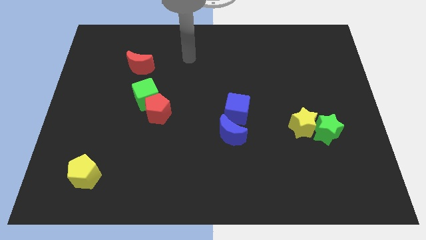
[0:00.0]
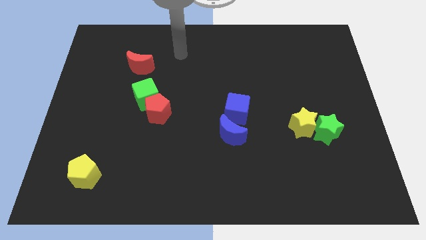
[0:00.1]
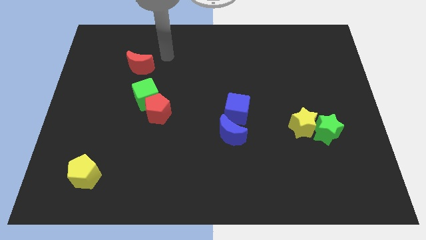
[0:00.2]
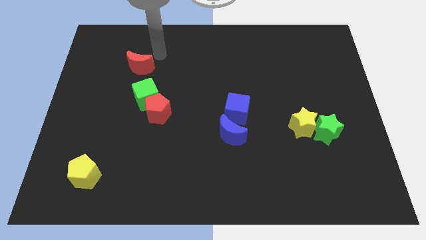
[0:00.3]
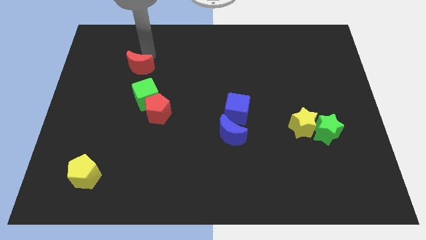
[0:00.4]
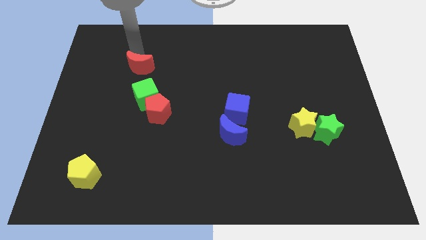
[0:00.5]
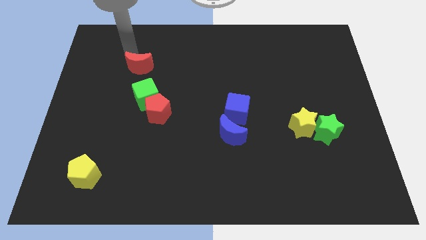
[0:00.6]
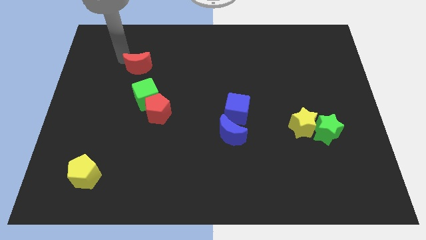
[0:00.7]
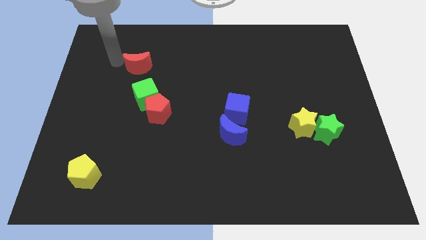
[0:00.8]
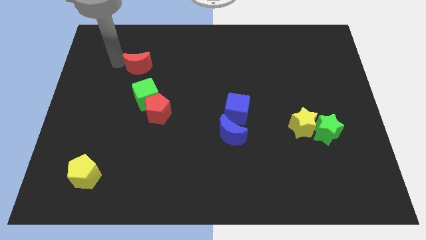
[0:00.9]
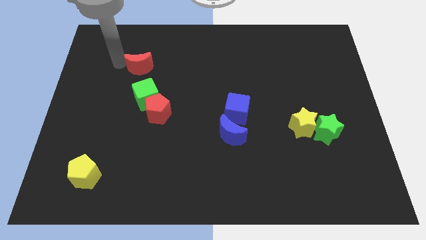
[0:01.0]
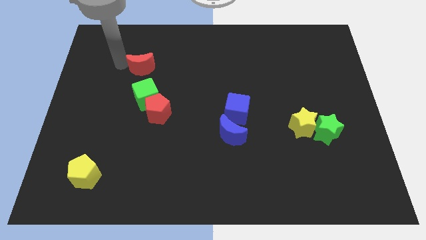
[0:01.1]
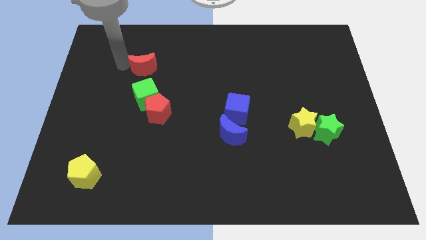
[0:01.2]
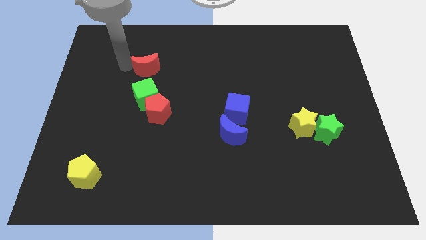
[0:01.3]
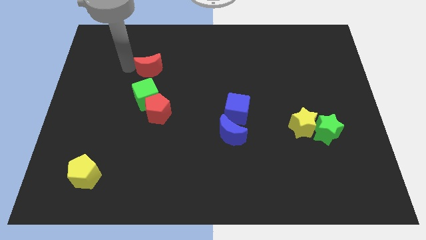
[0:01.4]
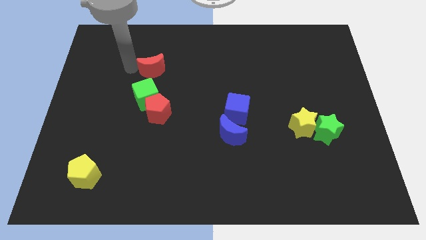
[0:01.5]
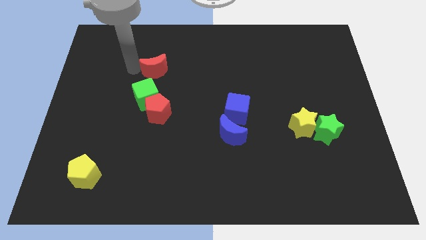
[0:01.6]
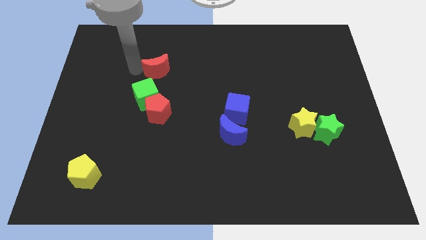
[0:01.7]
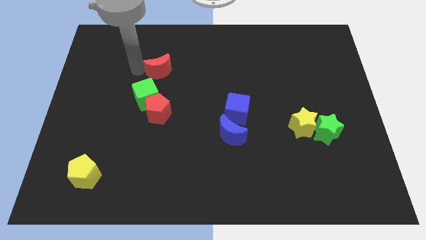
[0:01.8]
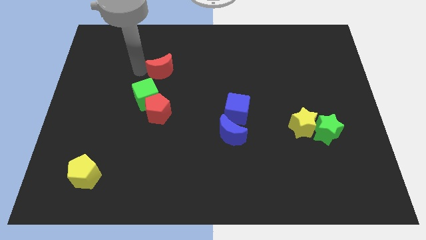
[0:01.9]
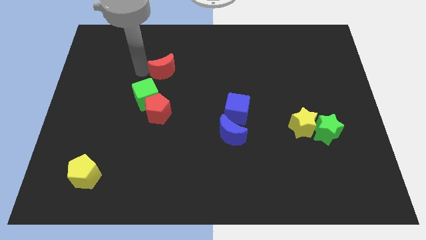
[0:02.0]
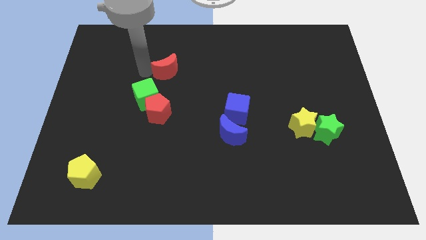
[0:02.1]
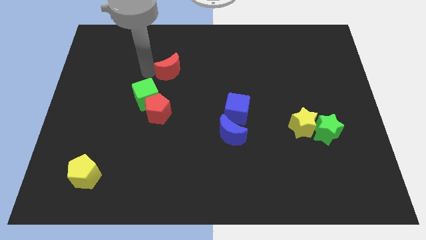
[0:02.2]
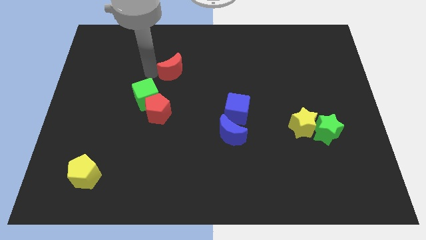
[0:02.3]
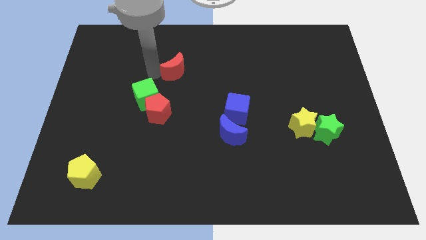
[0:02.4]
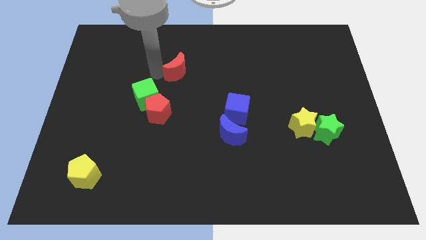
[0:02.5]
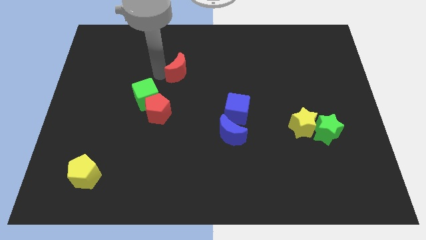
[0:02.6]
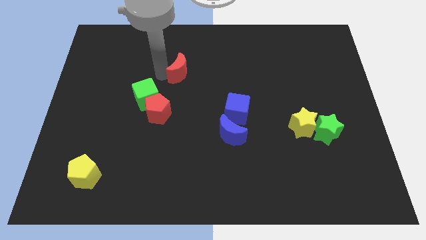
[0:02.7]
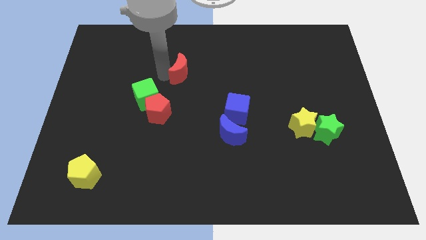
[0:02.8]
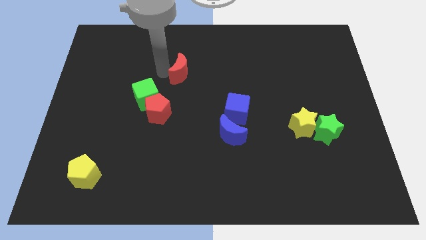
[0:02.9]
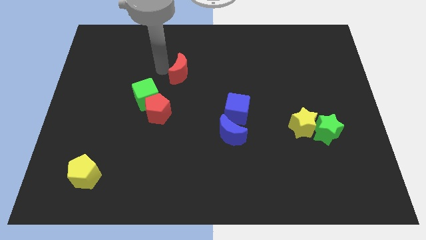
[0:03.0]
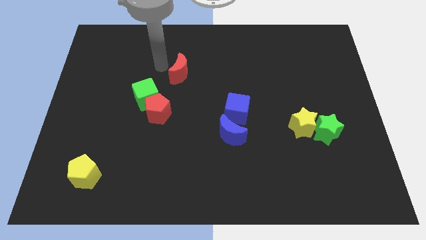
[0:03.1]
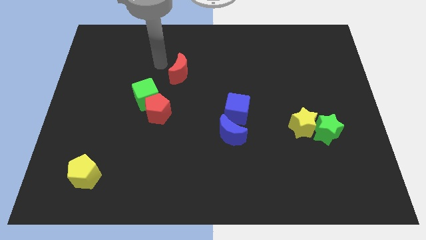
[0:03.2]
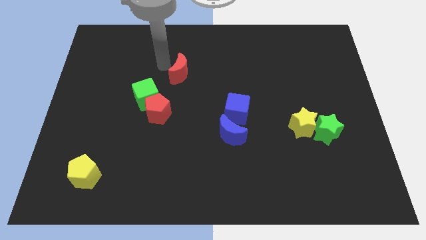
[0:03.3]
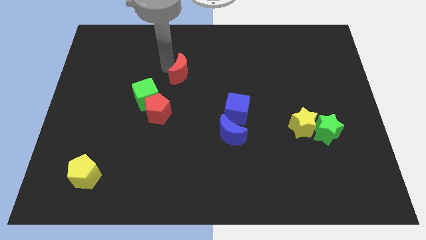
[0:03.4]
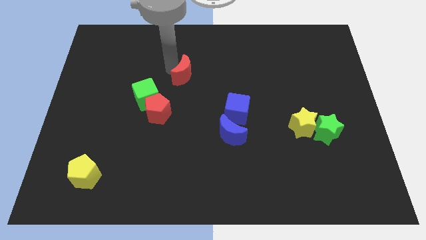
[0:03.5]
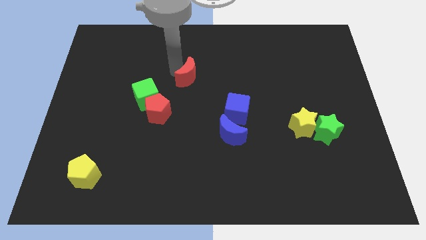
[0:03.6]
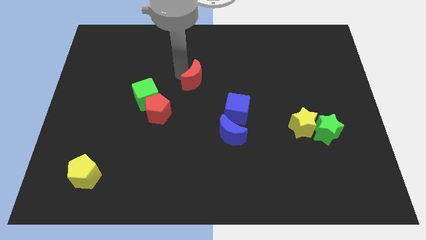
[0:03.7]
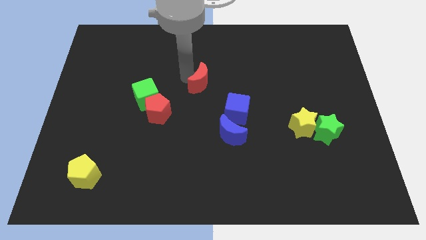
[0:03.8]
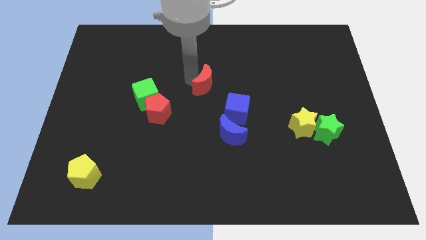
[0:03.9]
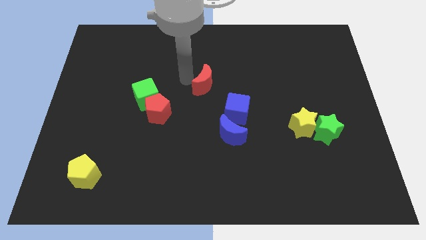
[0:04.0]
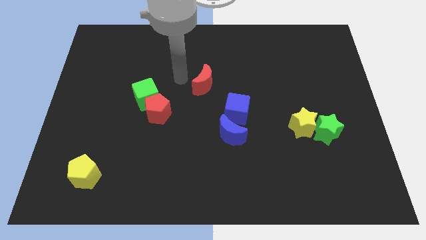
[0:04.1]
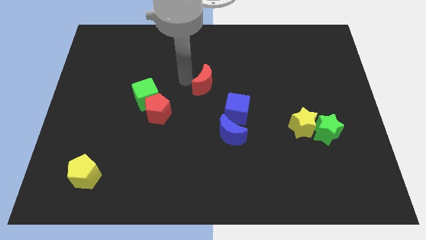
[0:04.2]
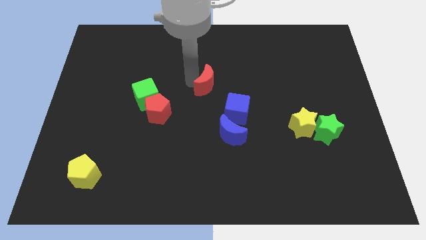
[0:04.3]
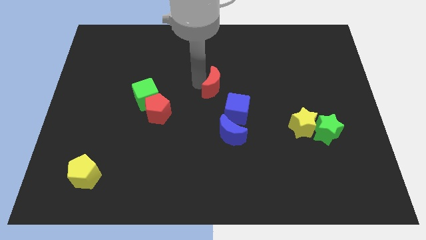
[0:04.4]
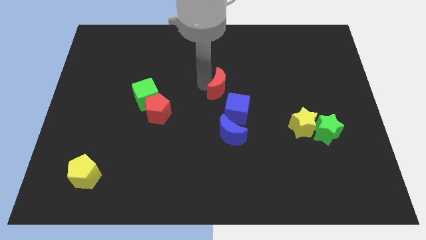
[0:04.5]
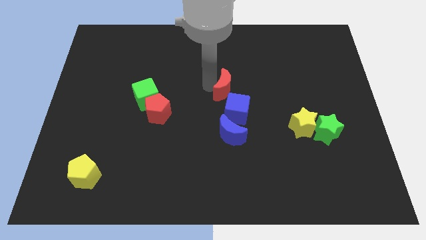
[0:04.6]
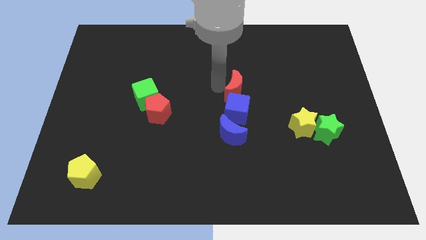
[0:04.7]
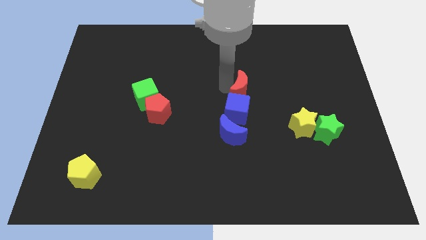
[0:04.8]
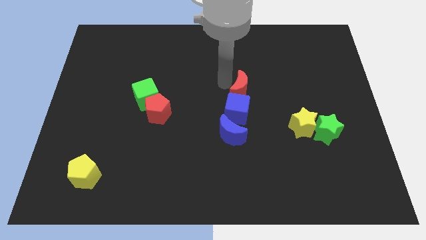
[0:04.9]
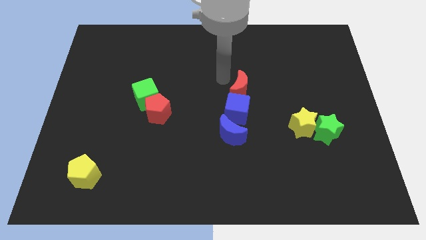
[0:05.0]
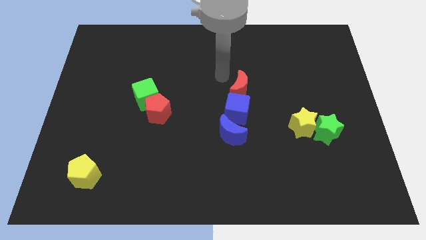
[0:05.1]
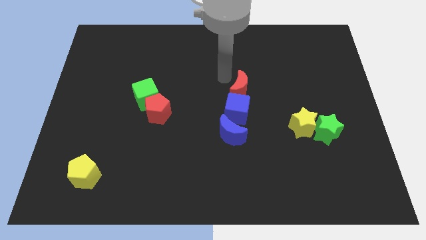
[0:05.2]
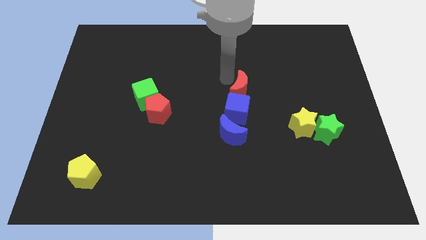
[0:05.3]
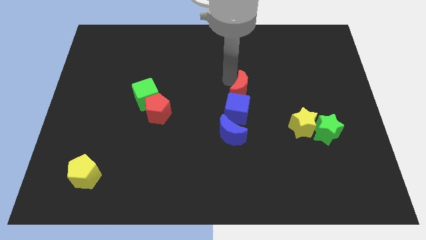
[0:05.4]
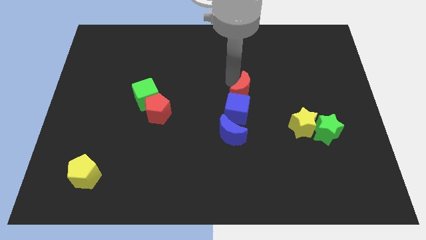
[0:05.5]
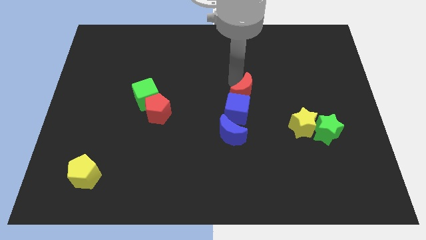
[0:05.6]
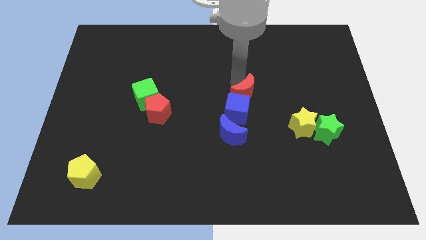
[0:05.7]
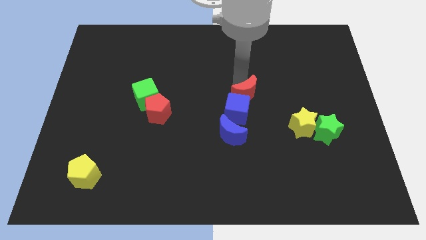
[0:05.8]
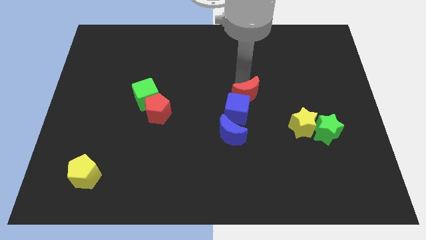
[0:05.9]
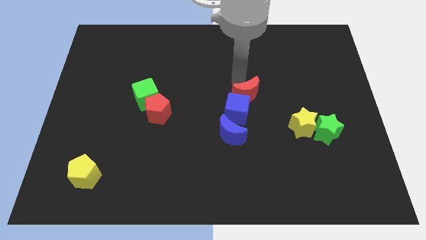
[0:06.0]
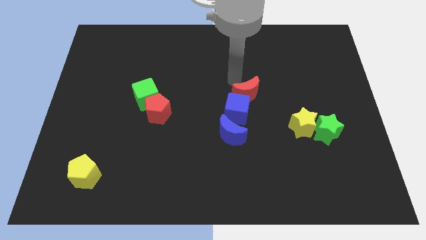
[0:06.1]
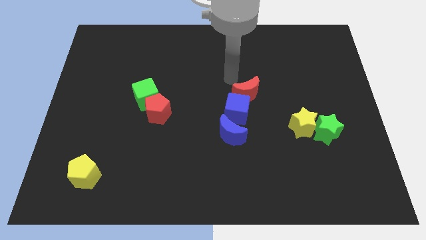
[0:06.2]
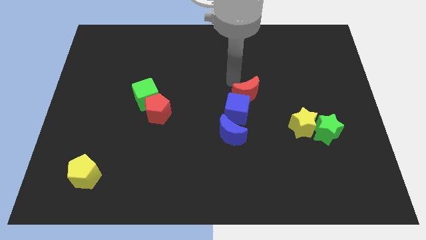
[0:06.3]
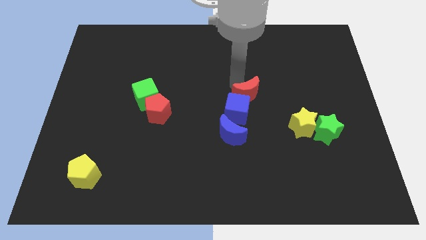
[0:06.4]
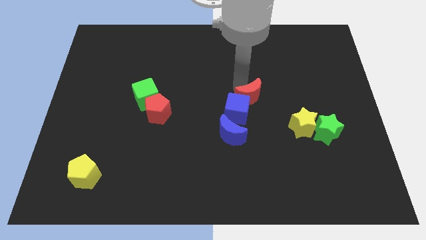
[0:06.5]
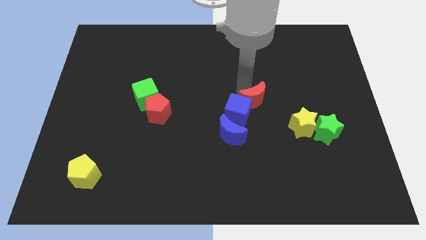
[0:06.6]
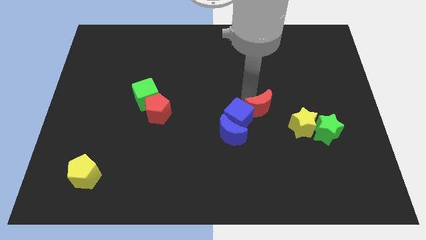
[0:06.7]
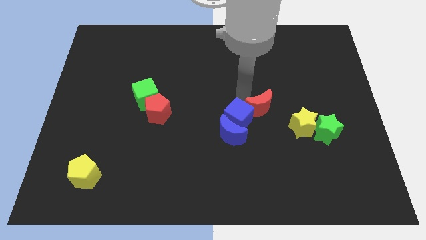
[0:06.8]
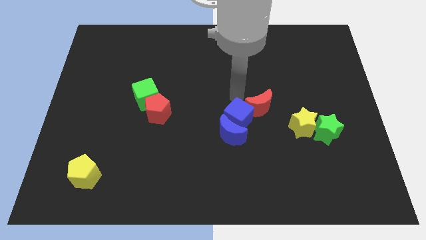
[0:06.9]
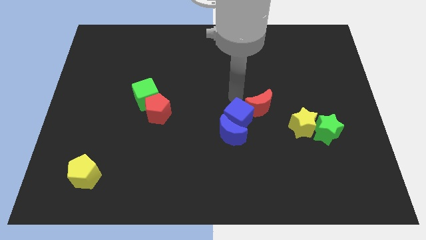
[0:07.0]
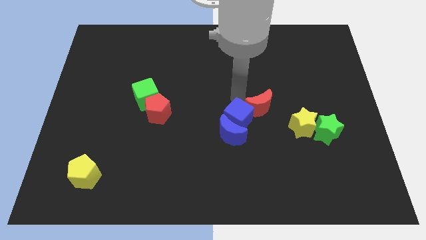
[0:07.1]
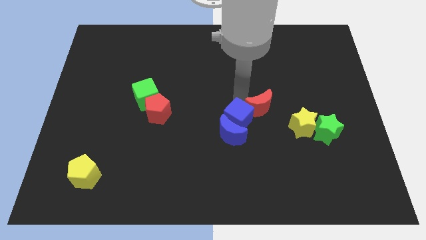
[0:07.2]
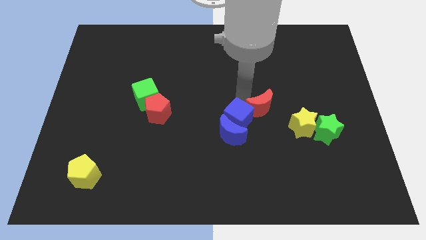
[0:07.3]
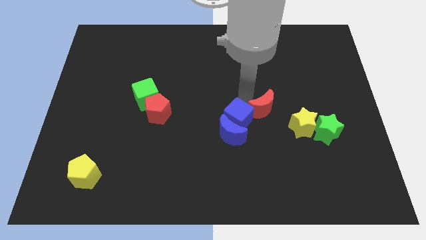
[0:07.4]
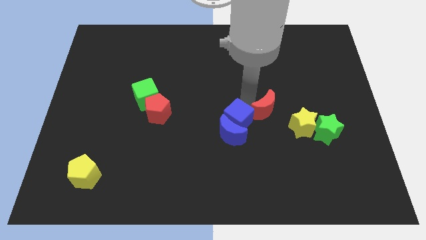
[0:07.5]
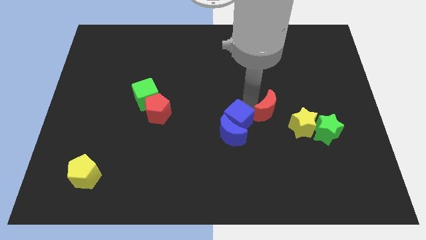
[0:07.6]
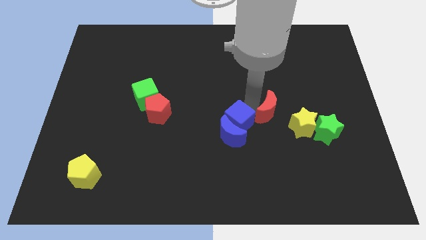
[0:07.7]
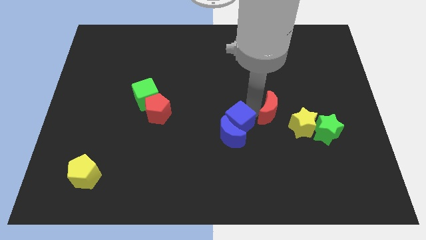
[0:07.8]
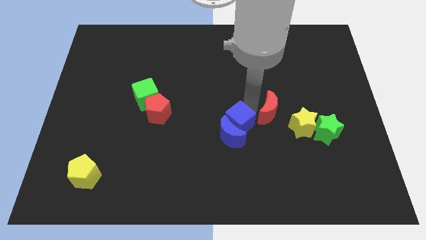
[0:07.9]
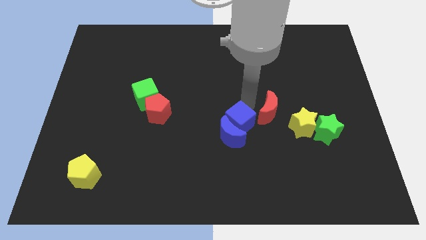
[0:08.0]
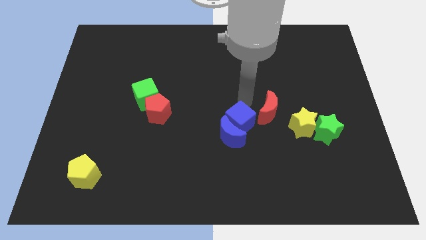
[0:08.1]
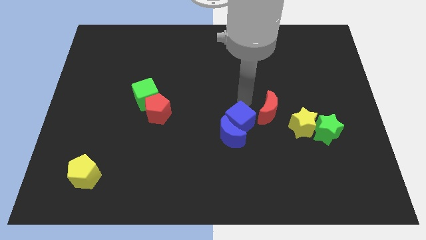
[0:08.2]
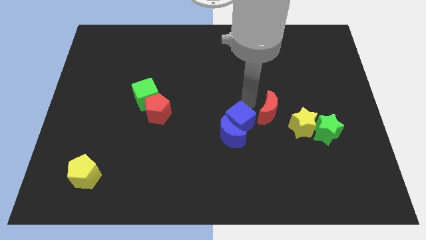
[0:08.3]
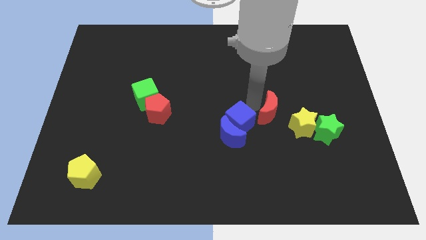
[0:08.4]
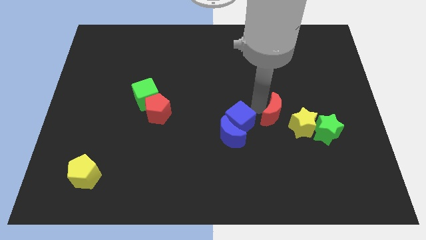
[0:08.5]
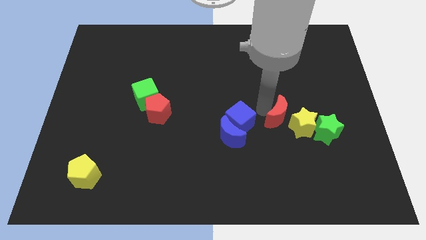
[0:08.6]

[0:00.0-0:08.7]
put the red moon towards the yellow star
